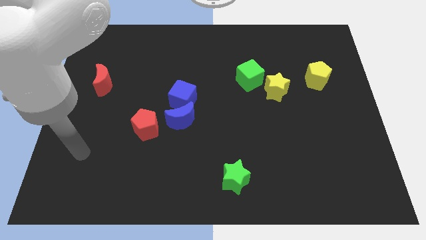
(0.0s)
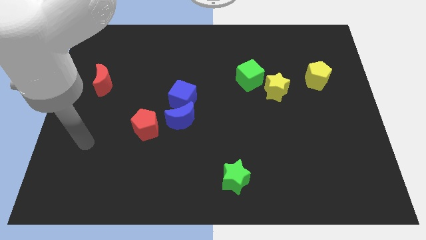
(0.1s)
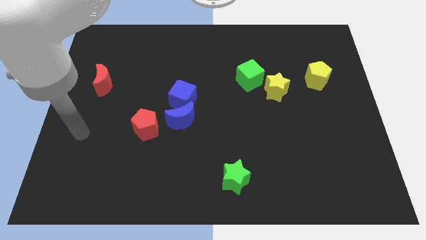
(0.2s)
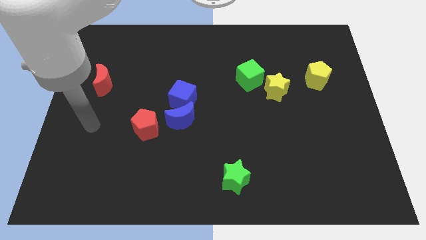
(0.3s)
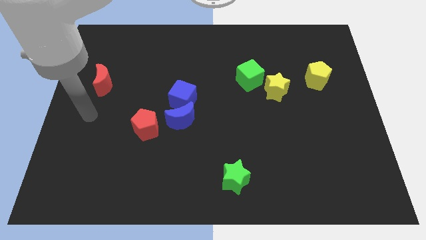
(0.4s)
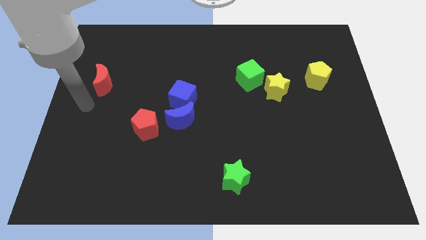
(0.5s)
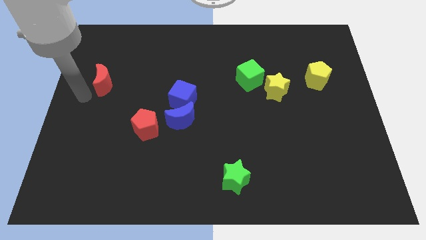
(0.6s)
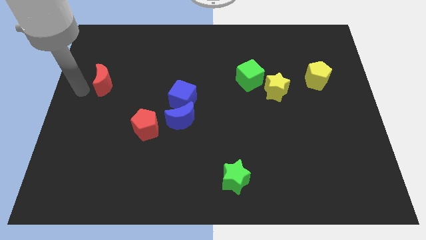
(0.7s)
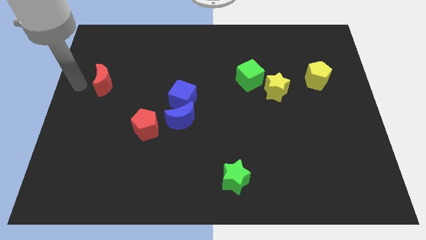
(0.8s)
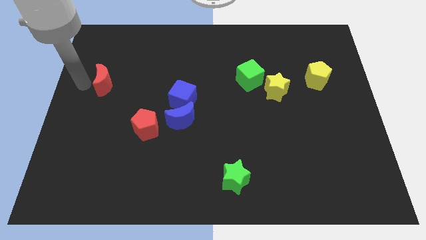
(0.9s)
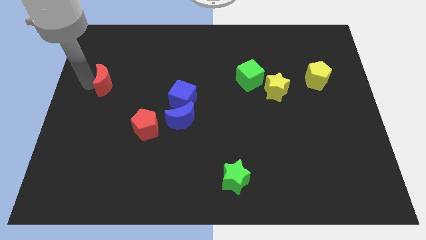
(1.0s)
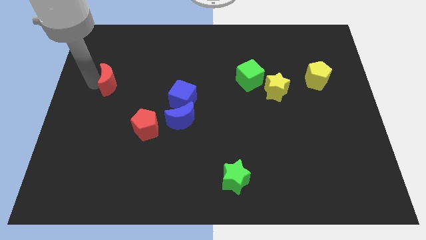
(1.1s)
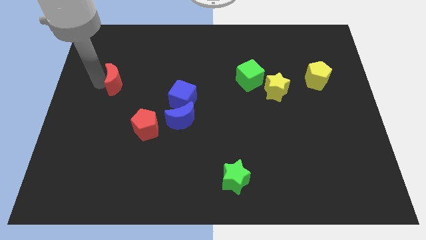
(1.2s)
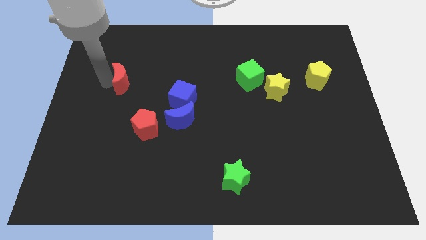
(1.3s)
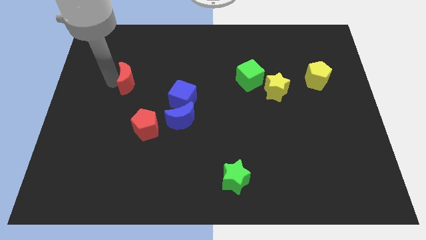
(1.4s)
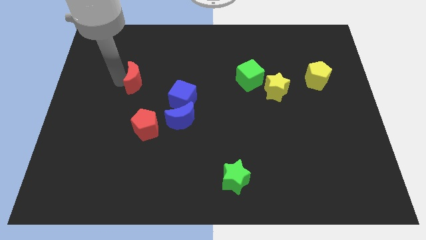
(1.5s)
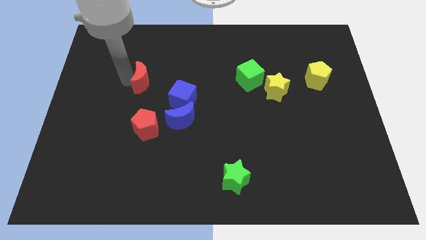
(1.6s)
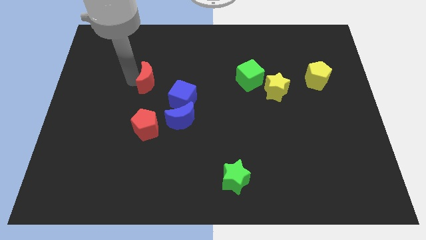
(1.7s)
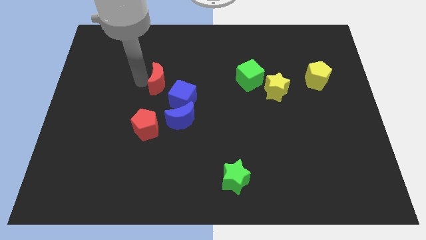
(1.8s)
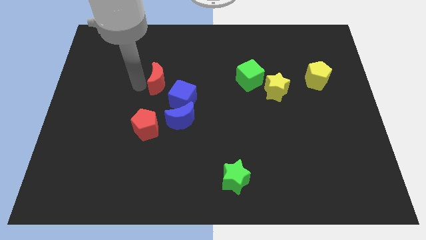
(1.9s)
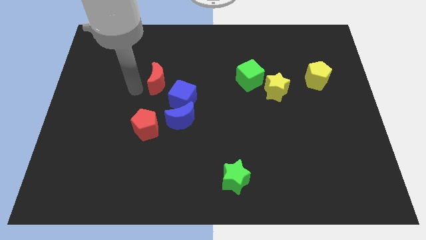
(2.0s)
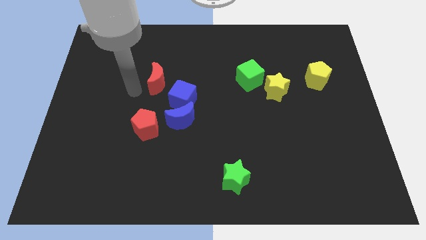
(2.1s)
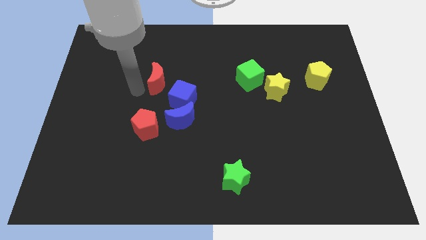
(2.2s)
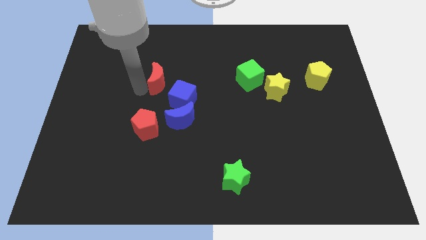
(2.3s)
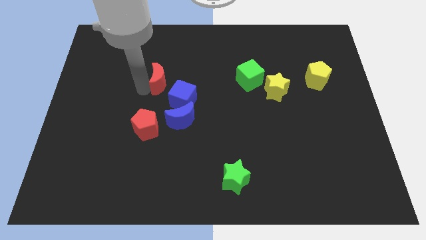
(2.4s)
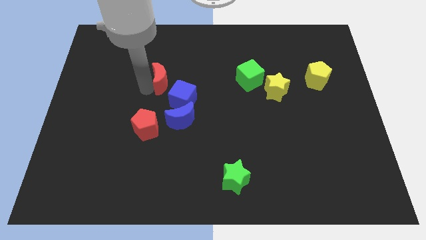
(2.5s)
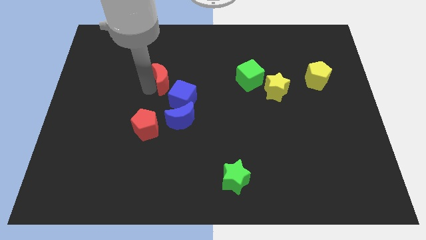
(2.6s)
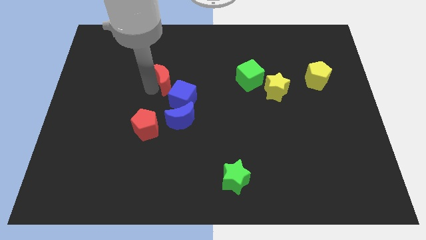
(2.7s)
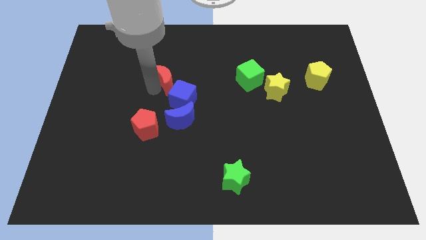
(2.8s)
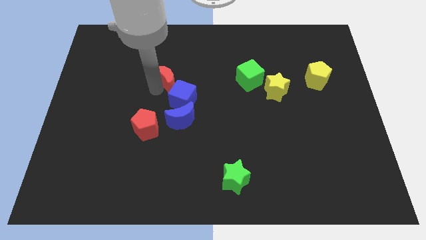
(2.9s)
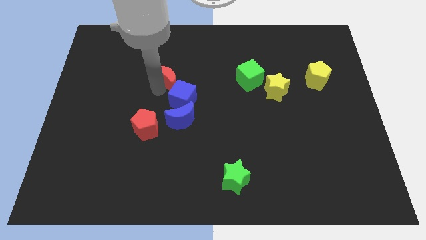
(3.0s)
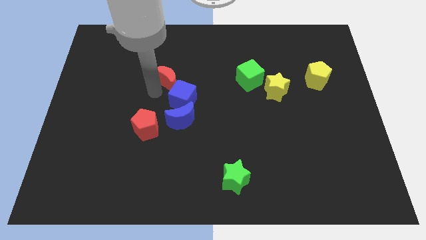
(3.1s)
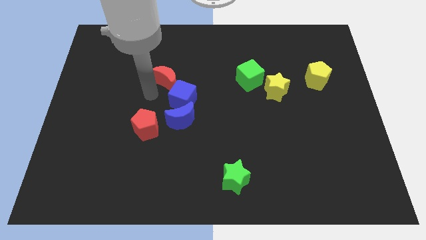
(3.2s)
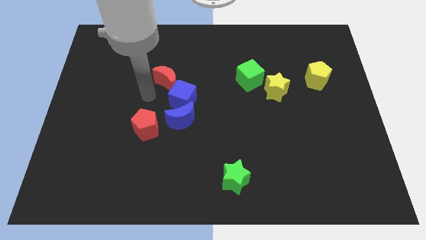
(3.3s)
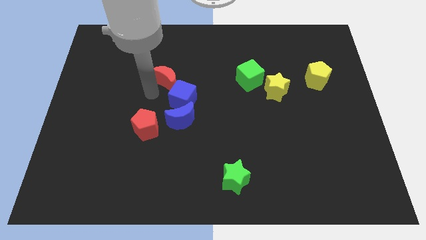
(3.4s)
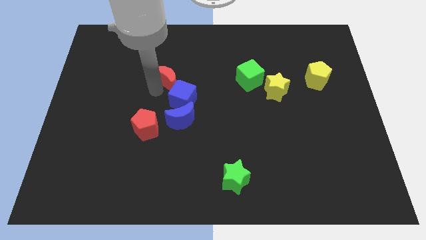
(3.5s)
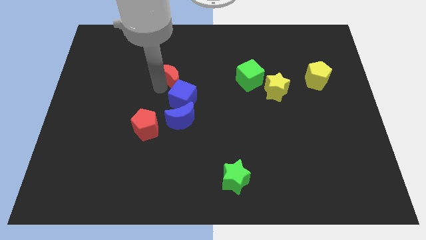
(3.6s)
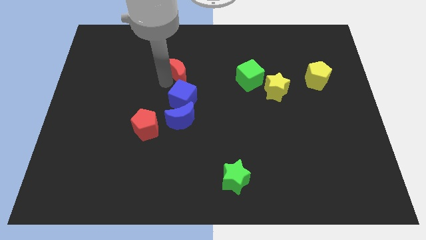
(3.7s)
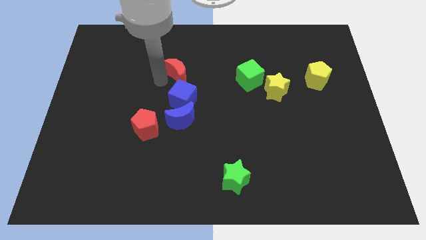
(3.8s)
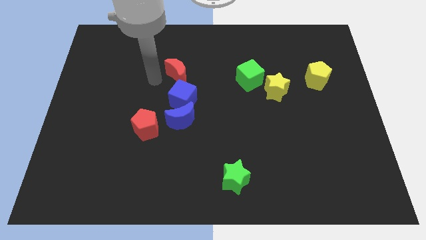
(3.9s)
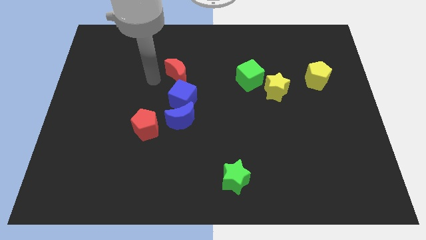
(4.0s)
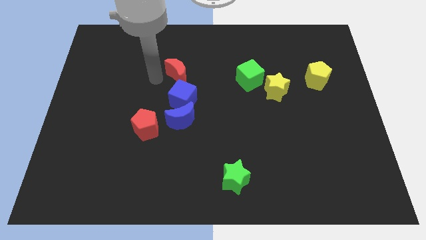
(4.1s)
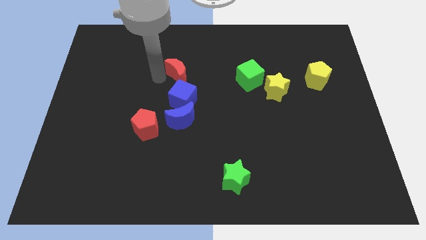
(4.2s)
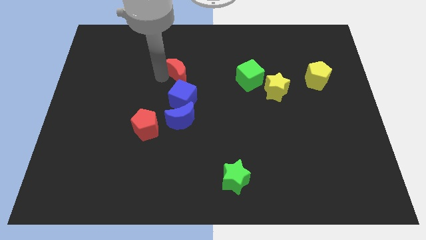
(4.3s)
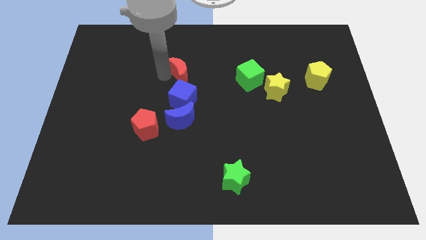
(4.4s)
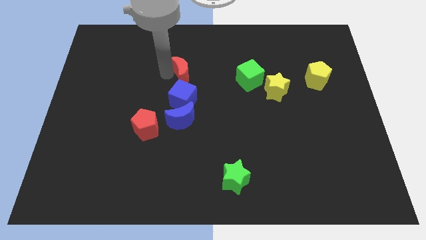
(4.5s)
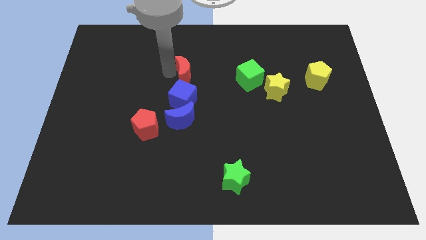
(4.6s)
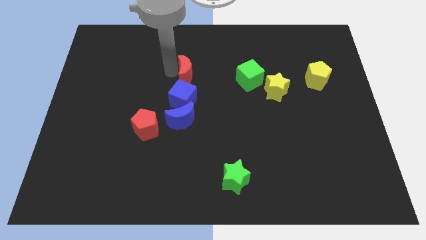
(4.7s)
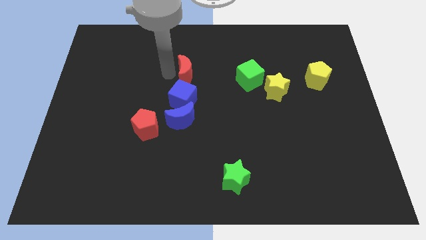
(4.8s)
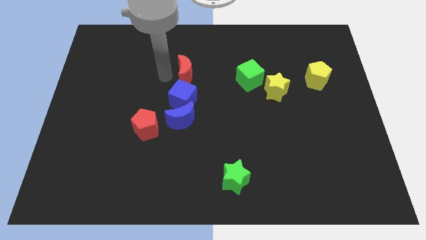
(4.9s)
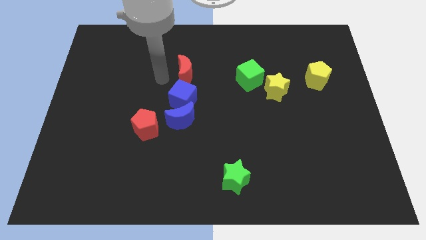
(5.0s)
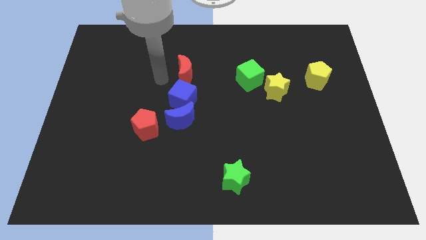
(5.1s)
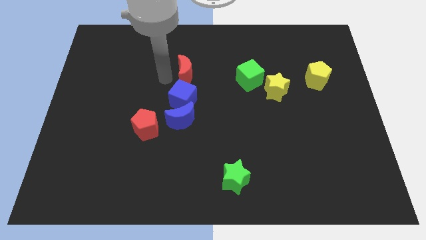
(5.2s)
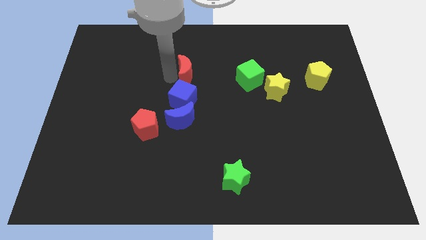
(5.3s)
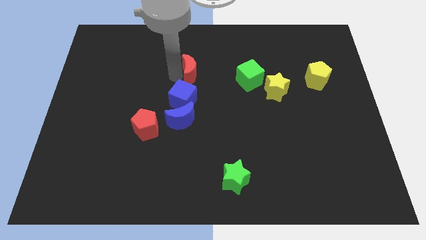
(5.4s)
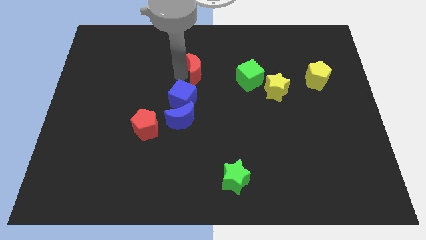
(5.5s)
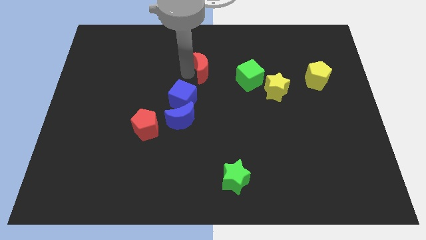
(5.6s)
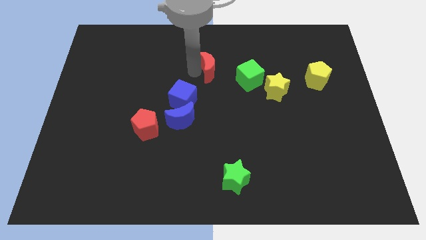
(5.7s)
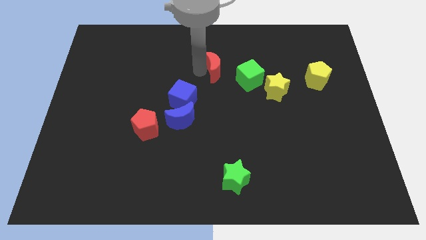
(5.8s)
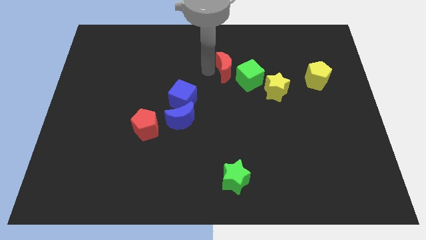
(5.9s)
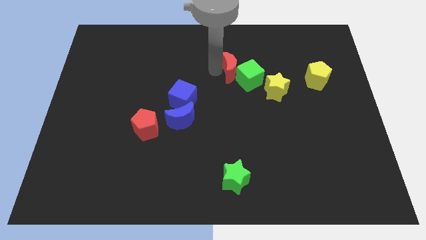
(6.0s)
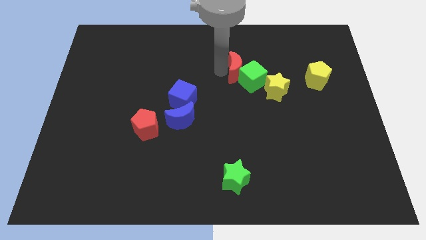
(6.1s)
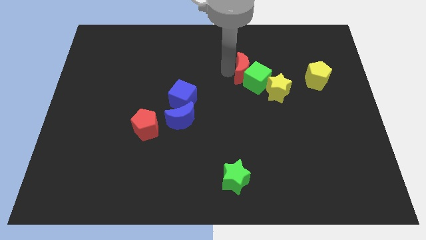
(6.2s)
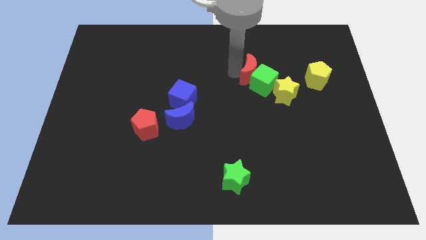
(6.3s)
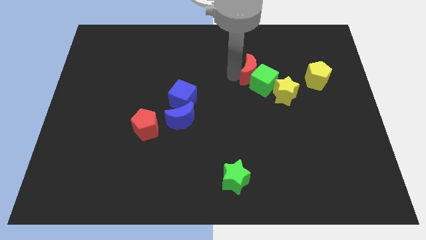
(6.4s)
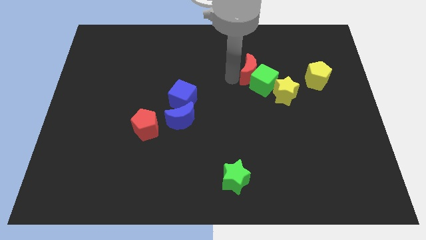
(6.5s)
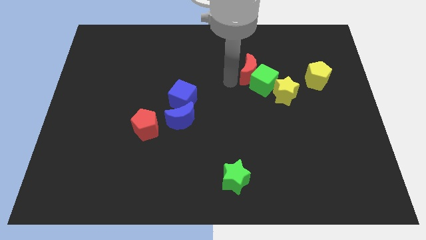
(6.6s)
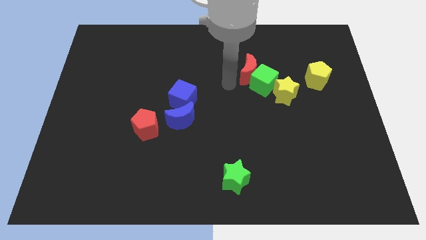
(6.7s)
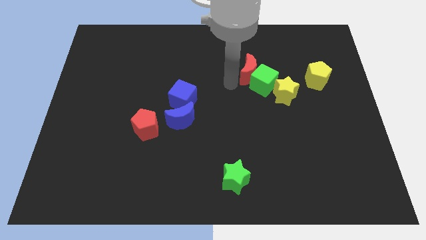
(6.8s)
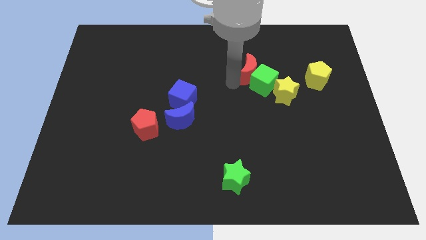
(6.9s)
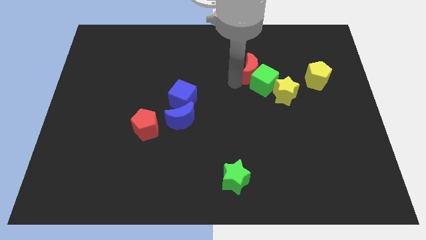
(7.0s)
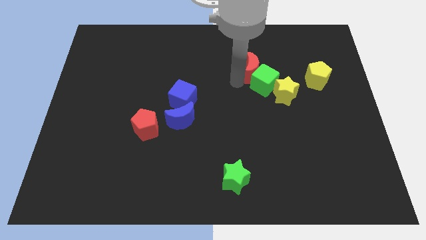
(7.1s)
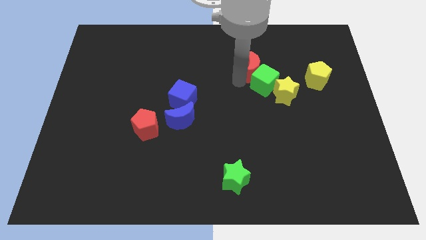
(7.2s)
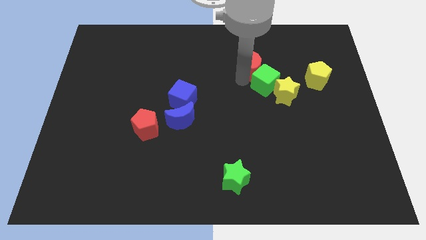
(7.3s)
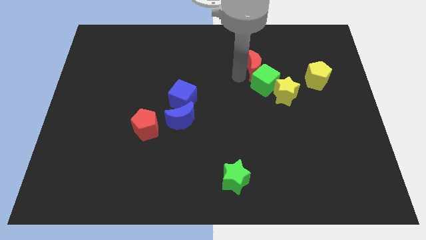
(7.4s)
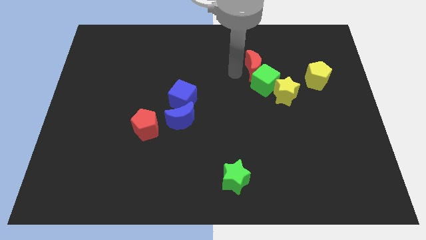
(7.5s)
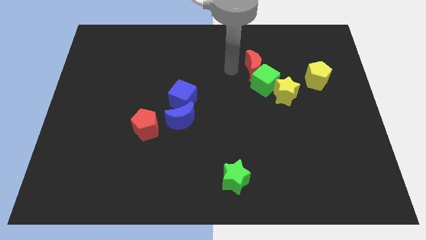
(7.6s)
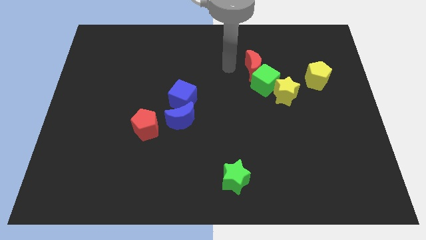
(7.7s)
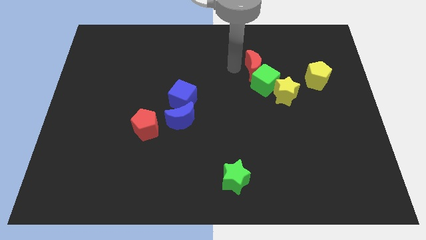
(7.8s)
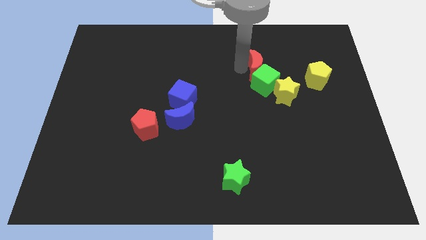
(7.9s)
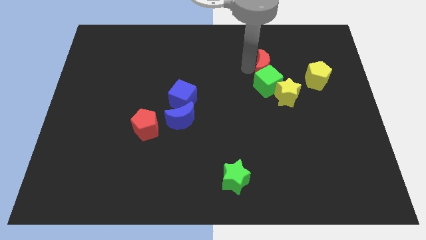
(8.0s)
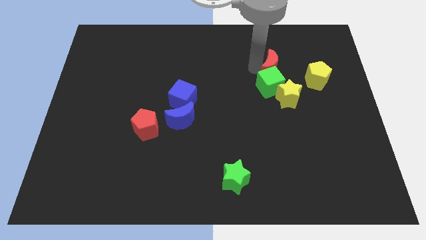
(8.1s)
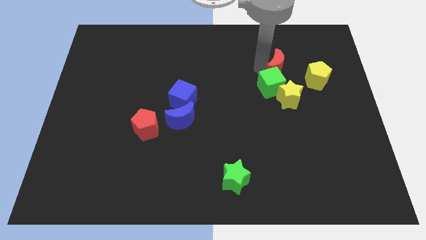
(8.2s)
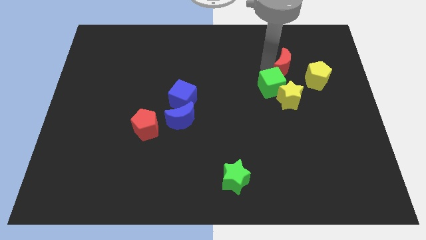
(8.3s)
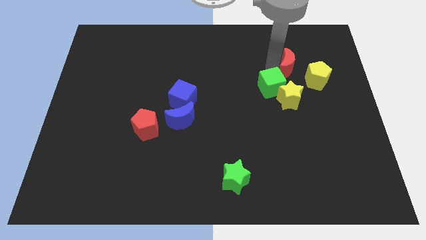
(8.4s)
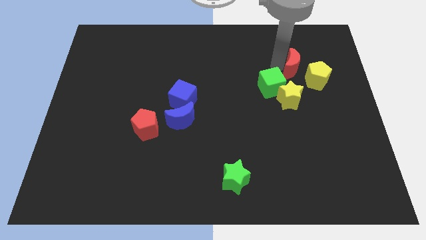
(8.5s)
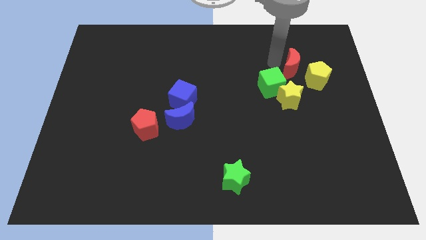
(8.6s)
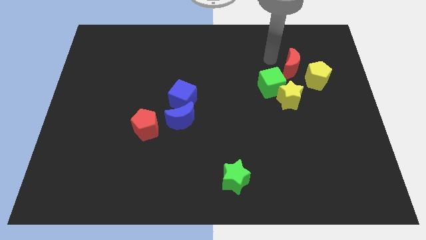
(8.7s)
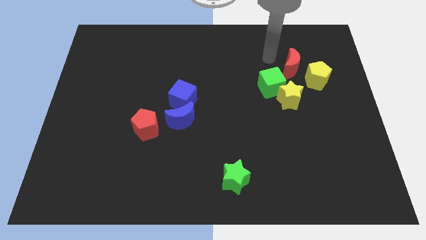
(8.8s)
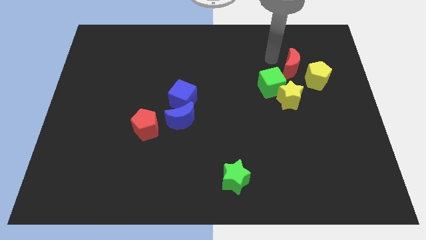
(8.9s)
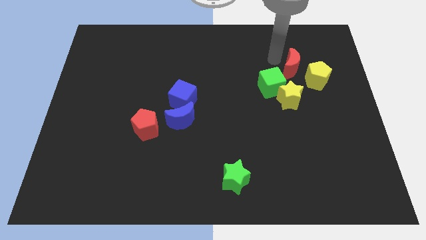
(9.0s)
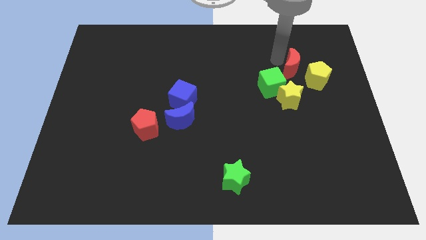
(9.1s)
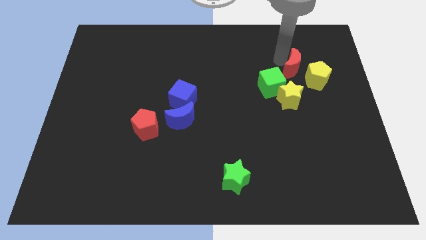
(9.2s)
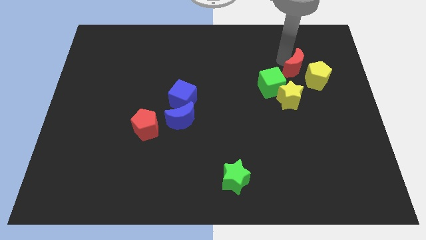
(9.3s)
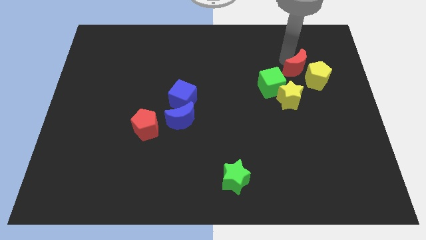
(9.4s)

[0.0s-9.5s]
move the red moon close to the yellow pentagon
